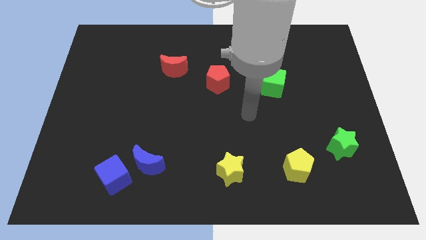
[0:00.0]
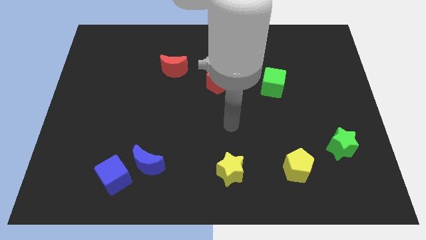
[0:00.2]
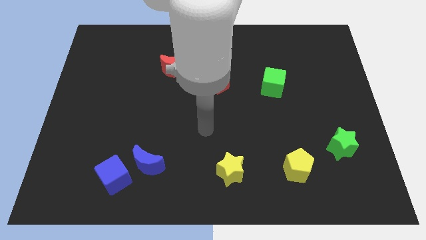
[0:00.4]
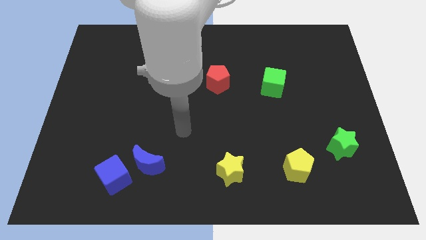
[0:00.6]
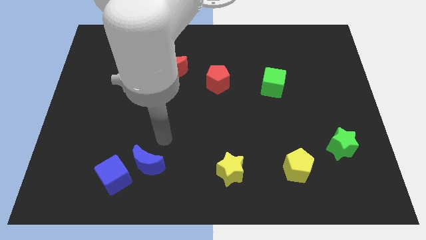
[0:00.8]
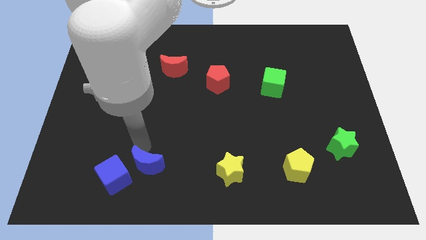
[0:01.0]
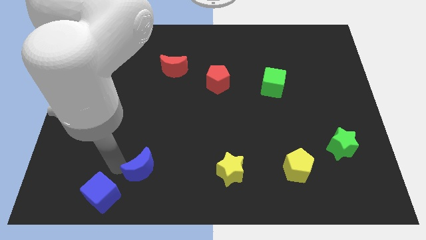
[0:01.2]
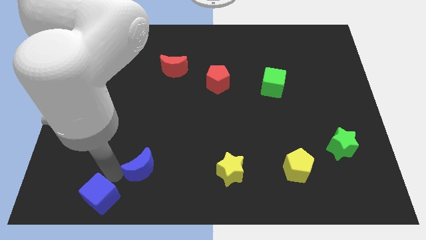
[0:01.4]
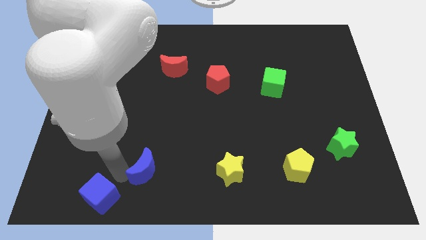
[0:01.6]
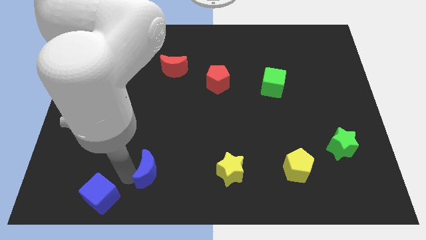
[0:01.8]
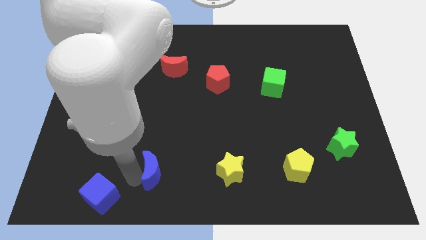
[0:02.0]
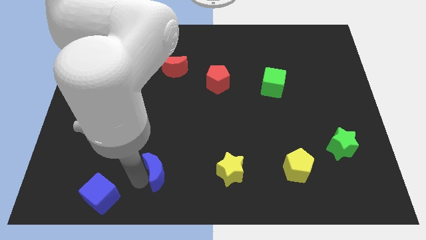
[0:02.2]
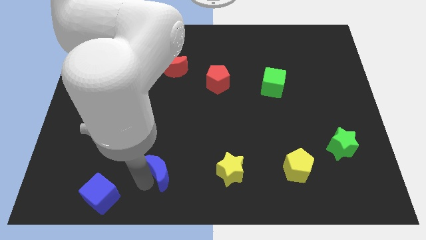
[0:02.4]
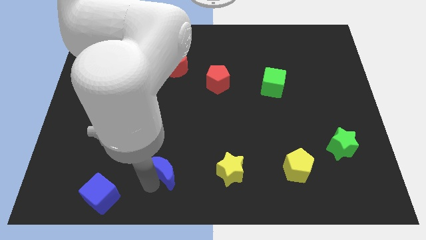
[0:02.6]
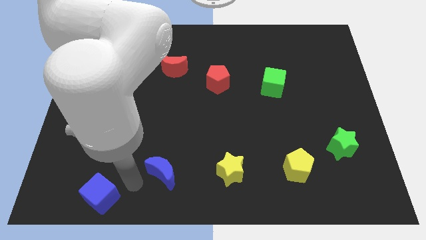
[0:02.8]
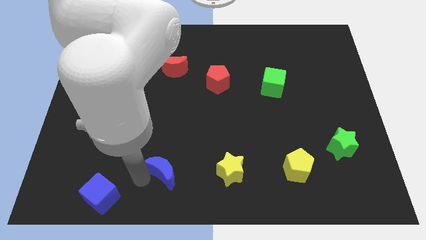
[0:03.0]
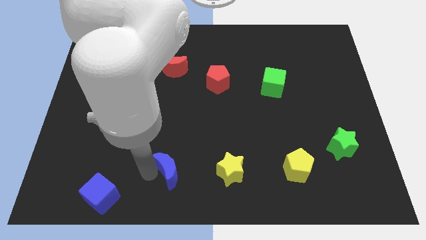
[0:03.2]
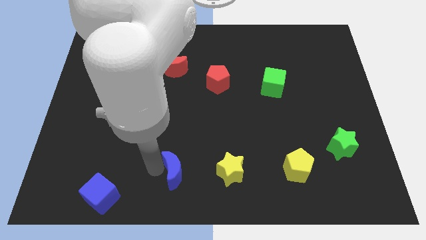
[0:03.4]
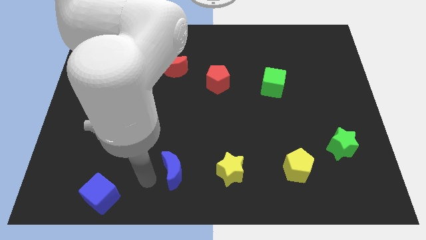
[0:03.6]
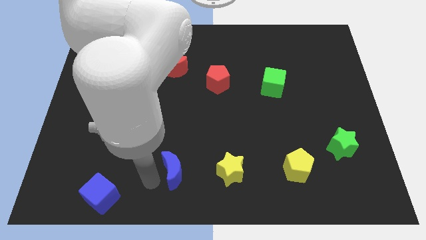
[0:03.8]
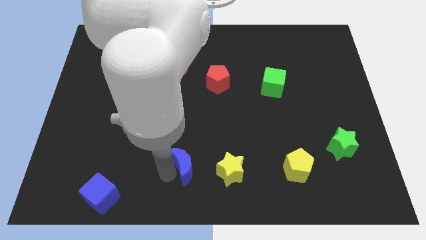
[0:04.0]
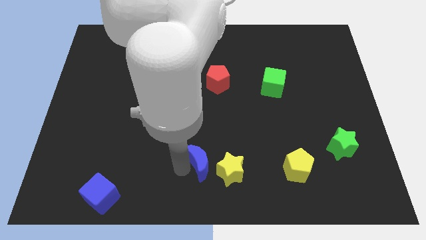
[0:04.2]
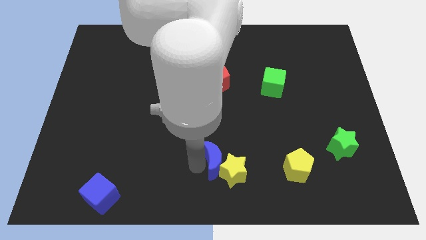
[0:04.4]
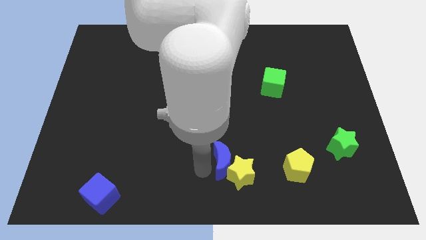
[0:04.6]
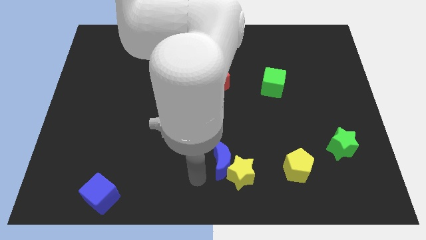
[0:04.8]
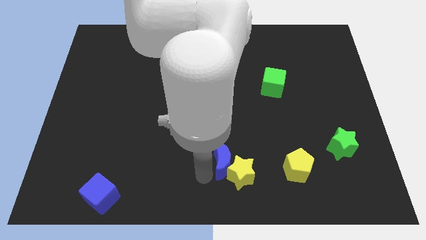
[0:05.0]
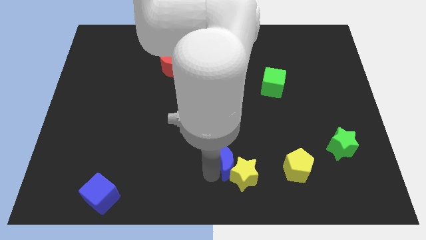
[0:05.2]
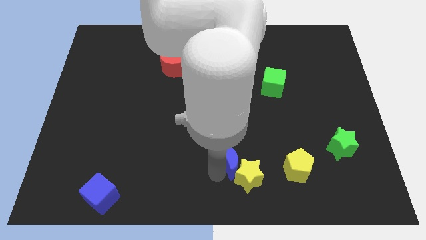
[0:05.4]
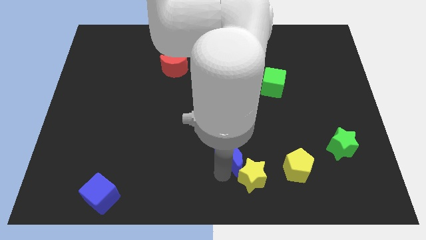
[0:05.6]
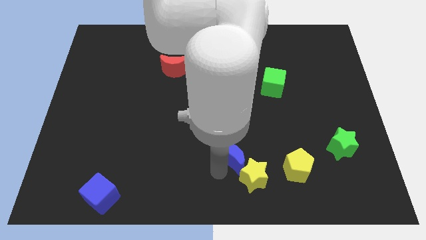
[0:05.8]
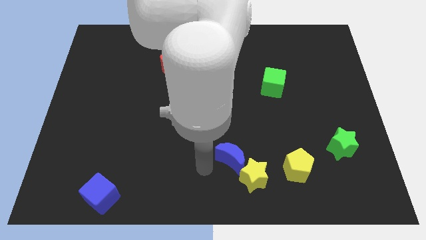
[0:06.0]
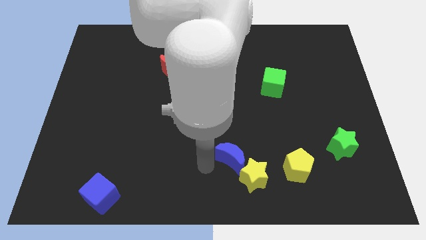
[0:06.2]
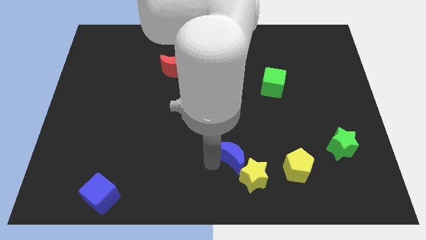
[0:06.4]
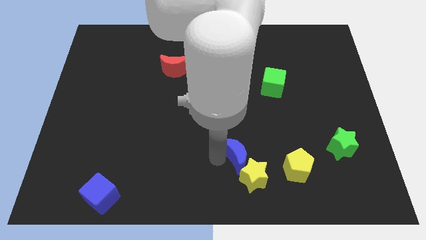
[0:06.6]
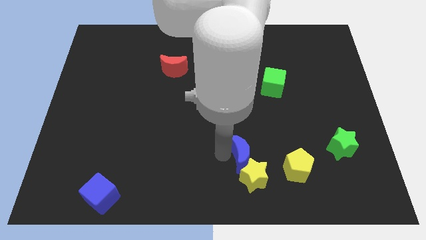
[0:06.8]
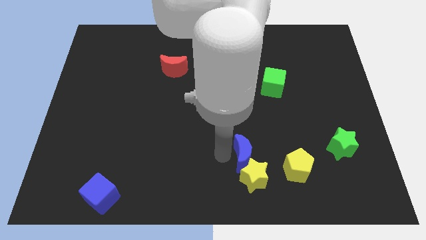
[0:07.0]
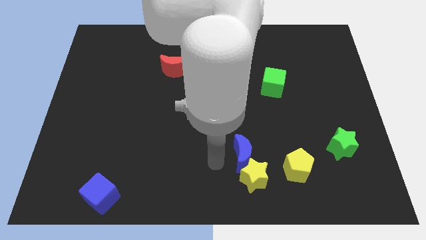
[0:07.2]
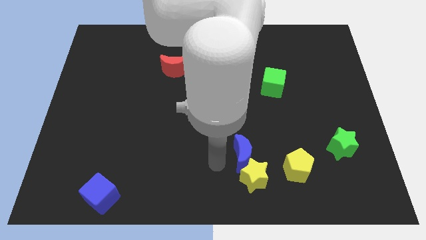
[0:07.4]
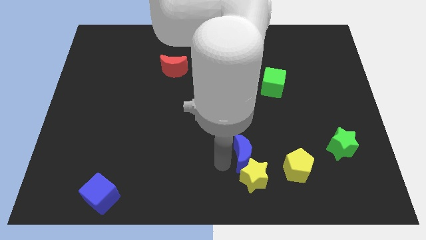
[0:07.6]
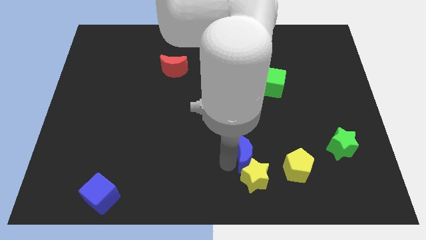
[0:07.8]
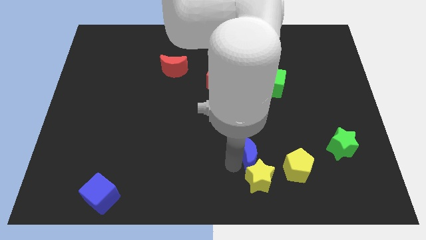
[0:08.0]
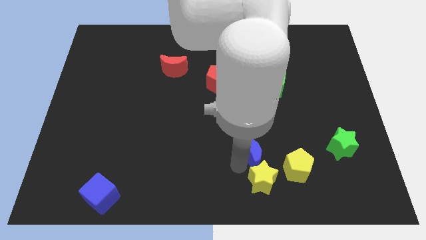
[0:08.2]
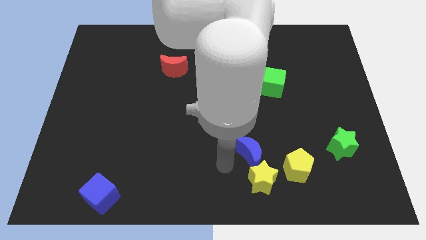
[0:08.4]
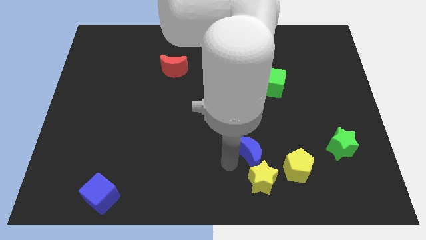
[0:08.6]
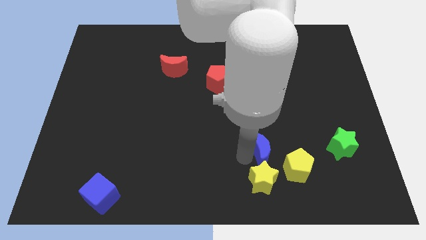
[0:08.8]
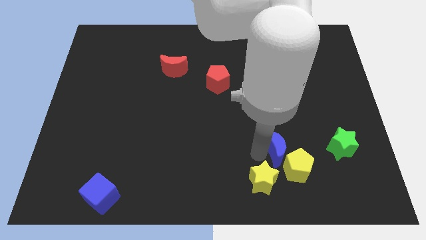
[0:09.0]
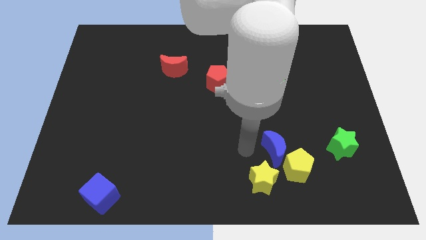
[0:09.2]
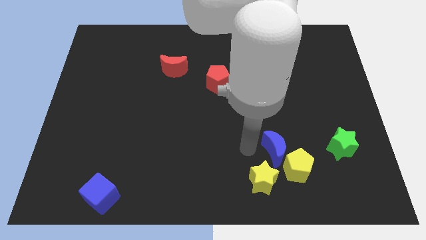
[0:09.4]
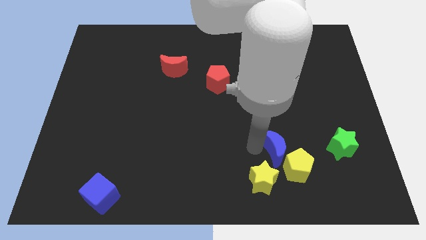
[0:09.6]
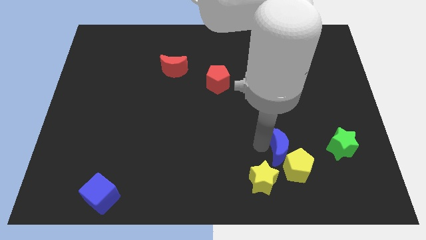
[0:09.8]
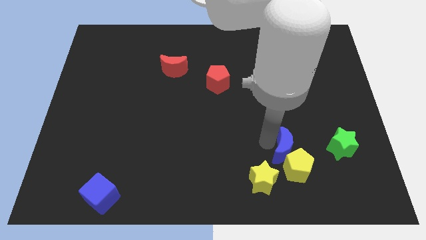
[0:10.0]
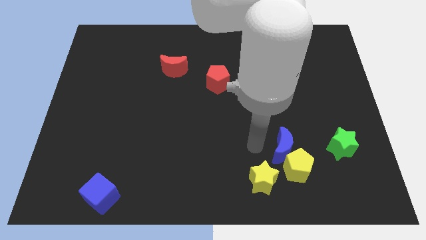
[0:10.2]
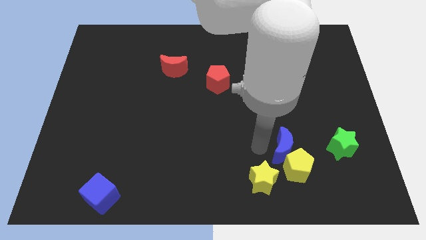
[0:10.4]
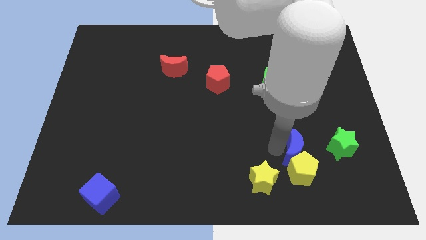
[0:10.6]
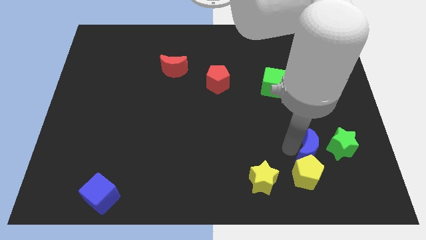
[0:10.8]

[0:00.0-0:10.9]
slide the blue moon to the bottom left side of the green star

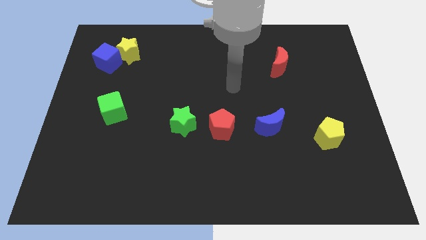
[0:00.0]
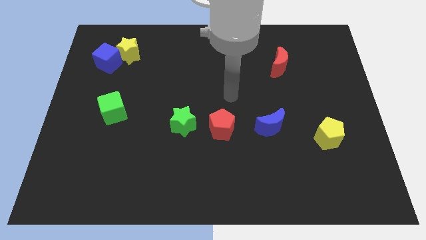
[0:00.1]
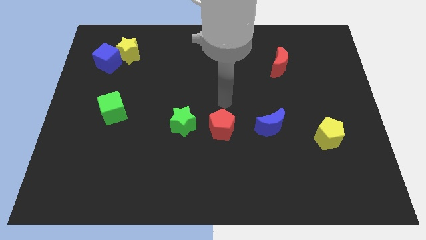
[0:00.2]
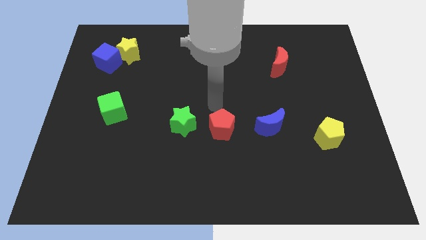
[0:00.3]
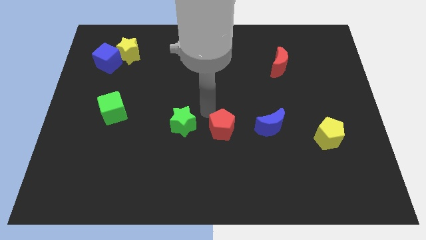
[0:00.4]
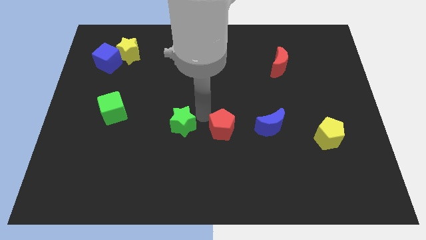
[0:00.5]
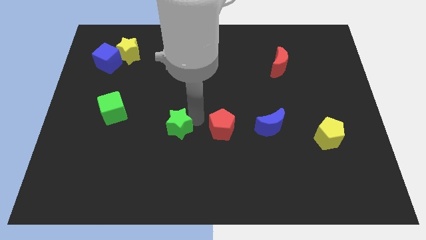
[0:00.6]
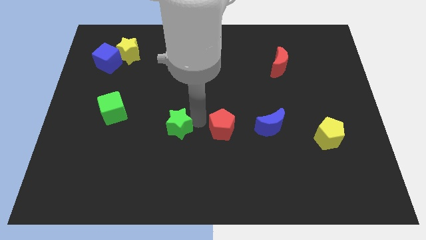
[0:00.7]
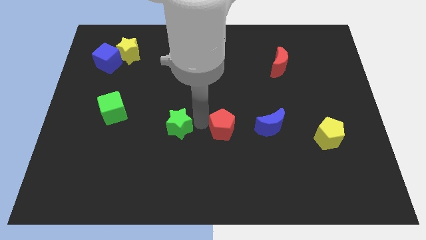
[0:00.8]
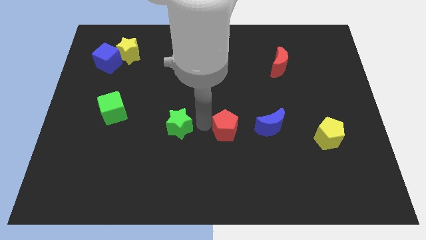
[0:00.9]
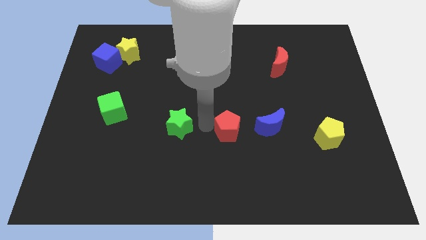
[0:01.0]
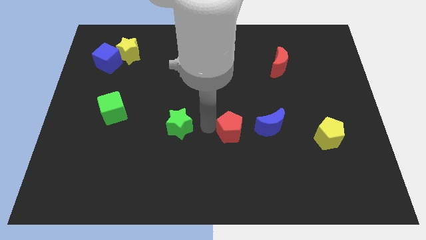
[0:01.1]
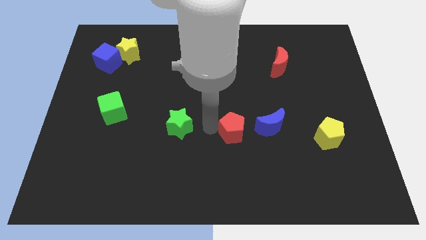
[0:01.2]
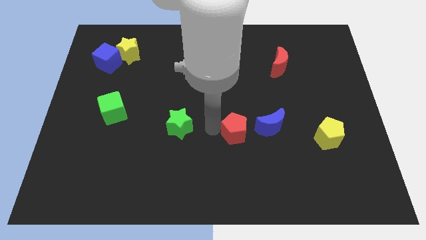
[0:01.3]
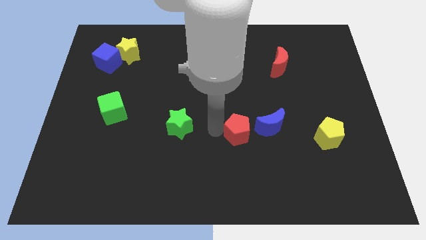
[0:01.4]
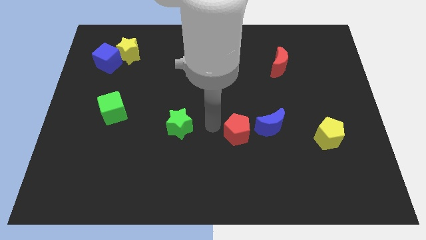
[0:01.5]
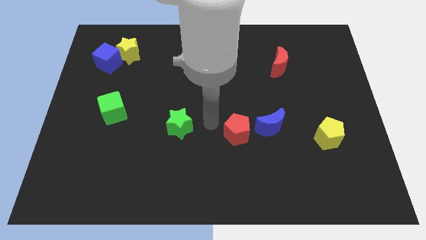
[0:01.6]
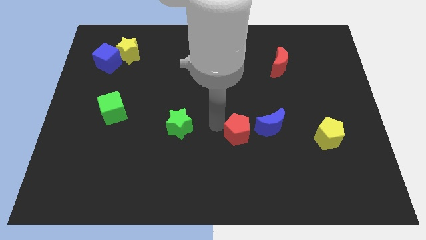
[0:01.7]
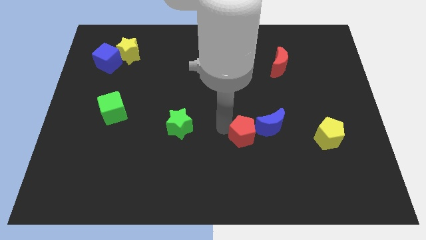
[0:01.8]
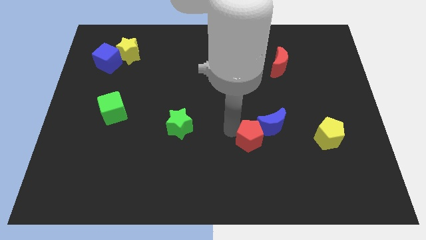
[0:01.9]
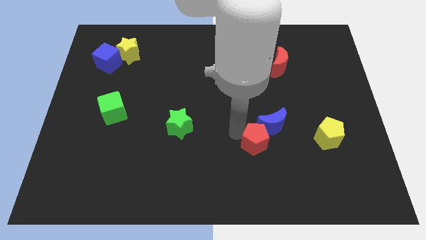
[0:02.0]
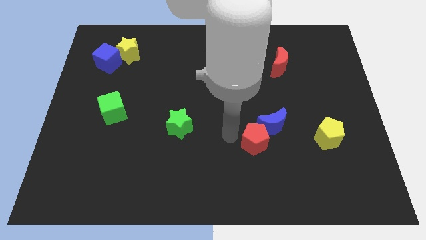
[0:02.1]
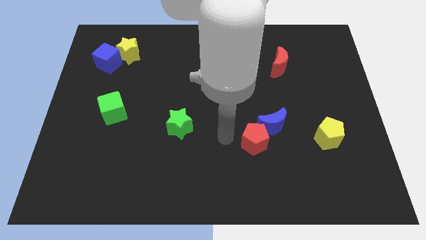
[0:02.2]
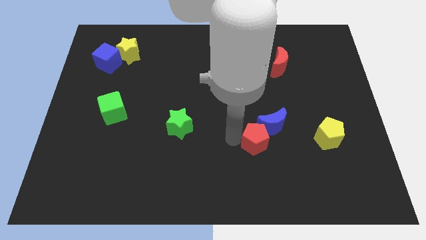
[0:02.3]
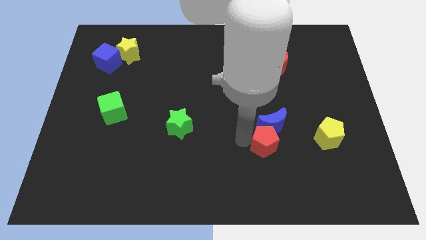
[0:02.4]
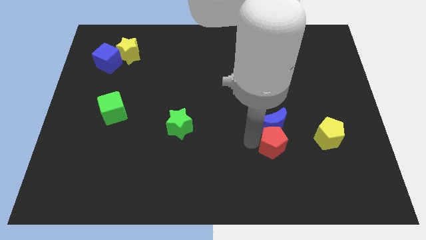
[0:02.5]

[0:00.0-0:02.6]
put the red pentagon to the bottom right side of the blue moon
